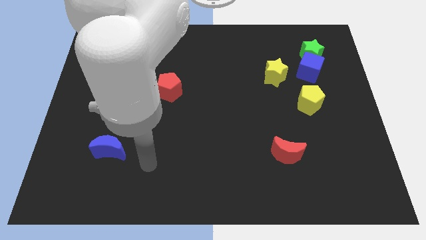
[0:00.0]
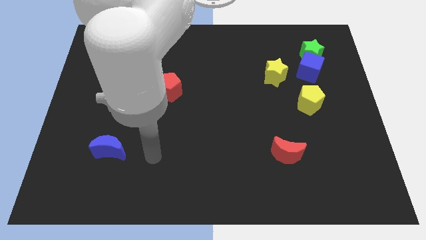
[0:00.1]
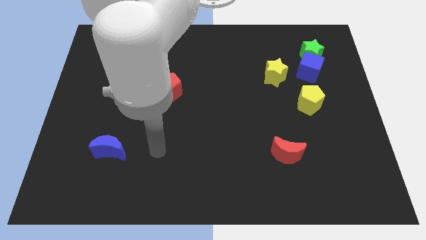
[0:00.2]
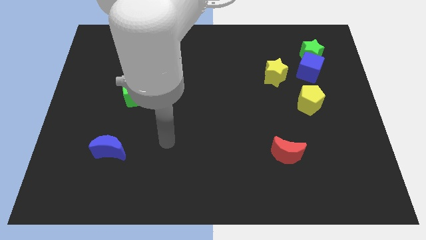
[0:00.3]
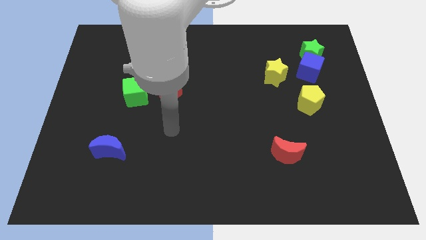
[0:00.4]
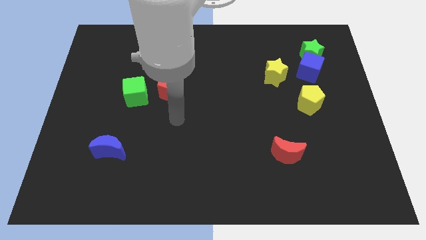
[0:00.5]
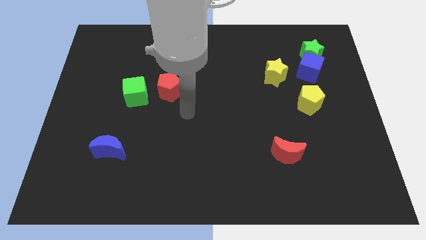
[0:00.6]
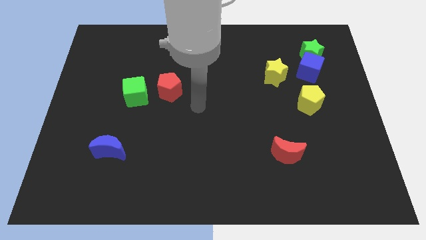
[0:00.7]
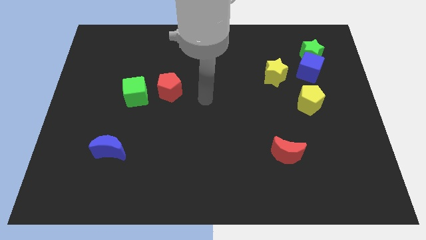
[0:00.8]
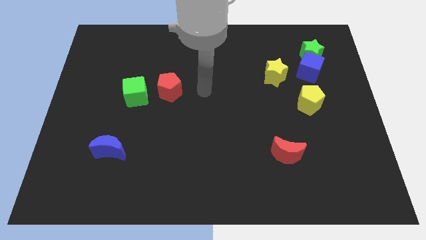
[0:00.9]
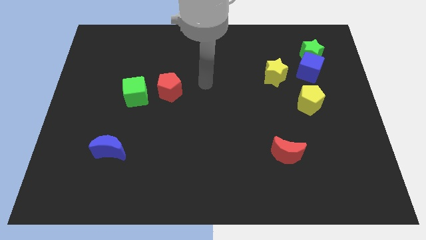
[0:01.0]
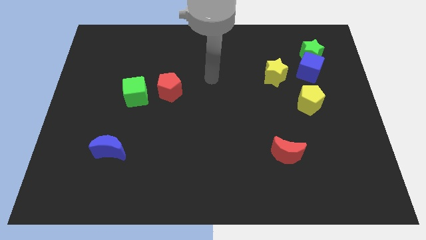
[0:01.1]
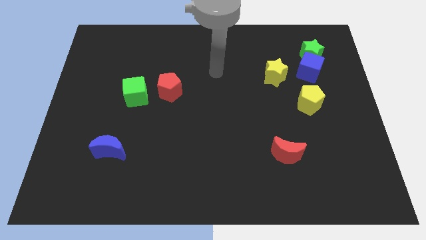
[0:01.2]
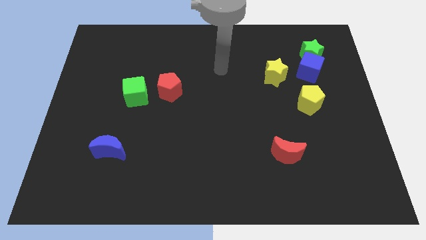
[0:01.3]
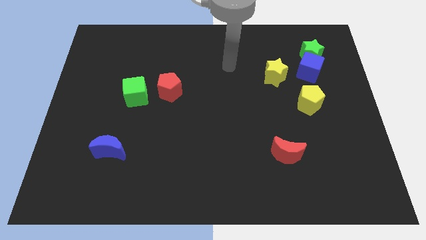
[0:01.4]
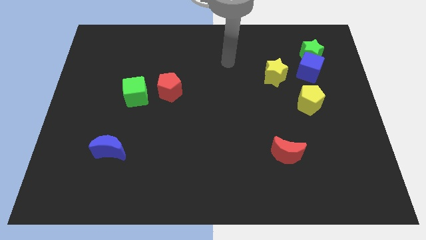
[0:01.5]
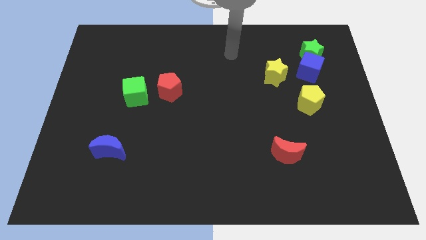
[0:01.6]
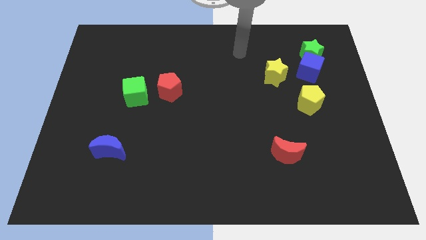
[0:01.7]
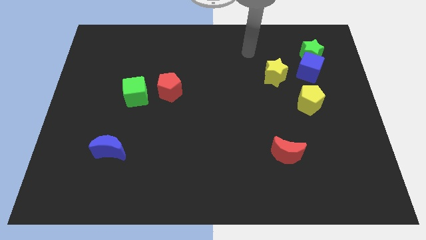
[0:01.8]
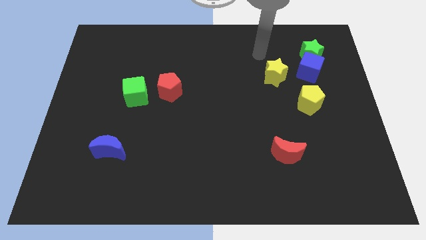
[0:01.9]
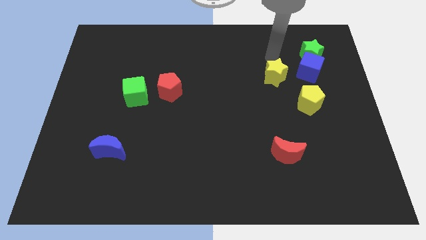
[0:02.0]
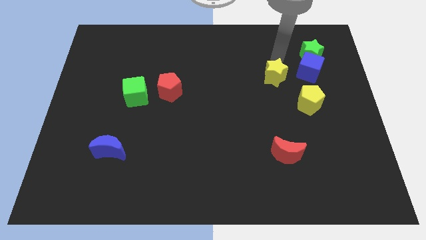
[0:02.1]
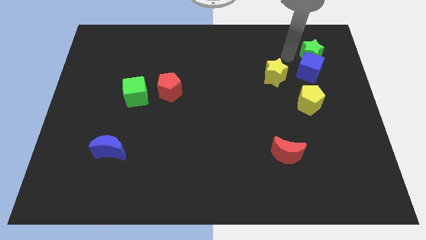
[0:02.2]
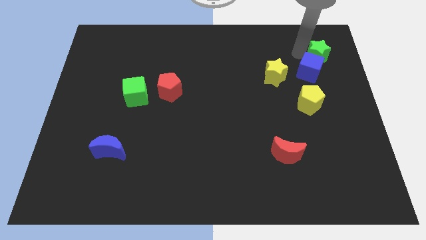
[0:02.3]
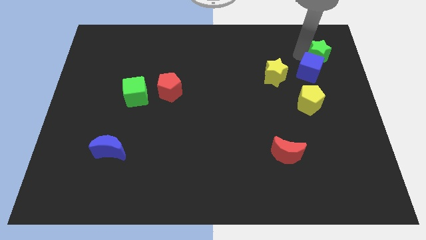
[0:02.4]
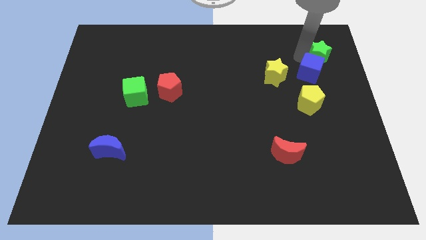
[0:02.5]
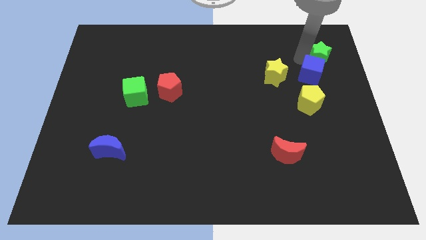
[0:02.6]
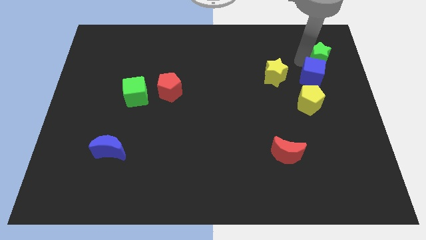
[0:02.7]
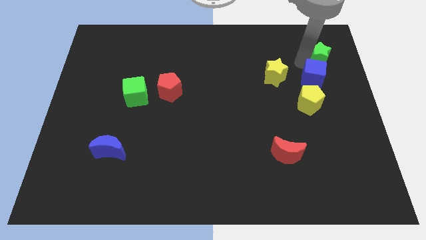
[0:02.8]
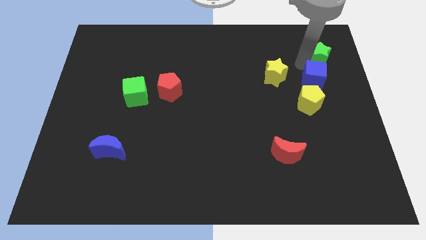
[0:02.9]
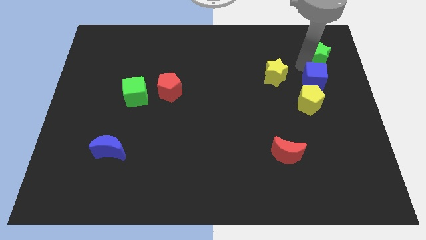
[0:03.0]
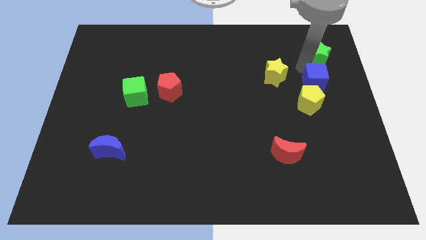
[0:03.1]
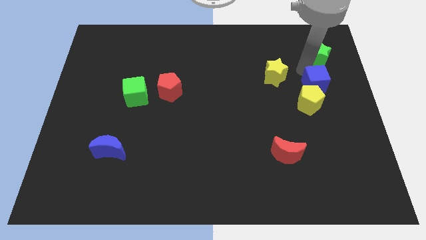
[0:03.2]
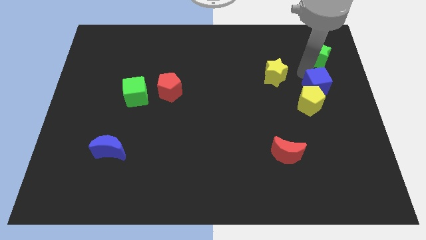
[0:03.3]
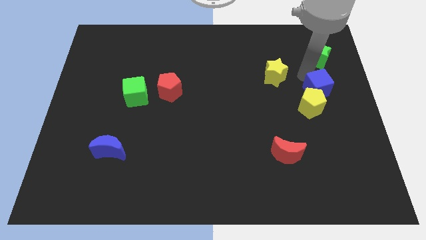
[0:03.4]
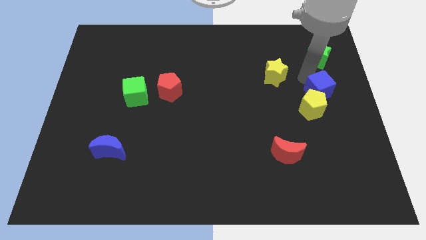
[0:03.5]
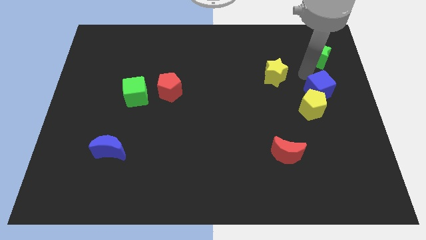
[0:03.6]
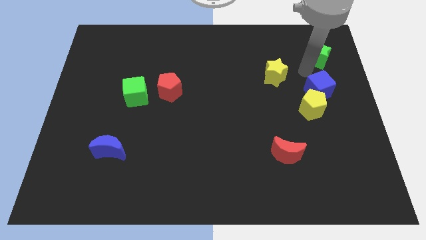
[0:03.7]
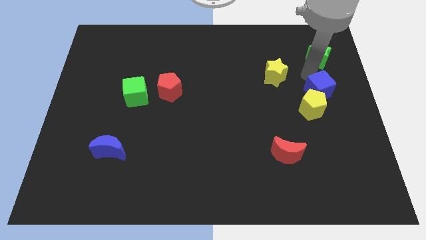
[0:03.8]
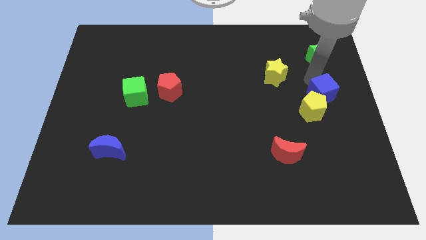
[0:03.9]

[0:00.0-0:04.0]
slightly slide the blue cube downwards

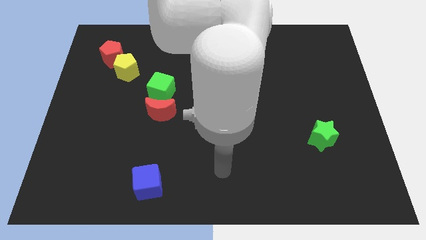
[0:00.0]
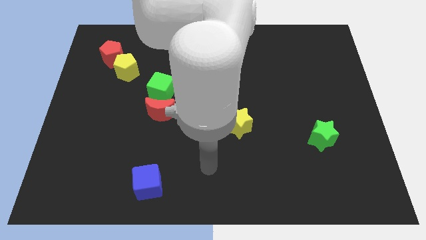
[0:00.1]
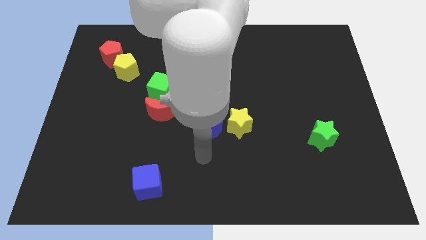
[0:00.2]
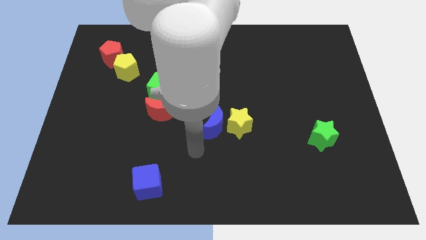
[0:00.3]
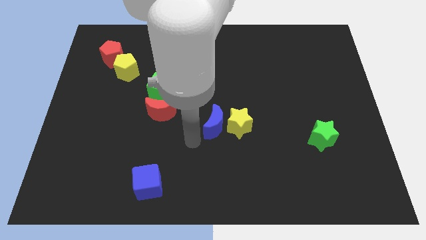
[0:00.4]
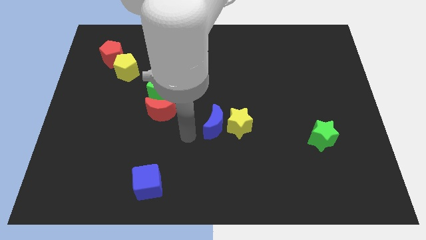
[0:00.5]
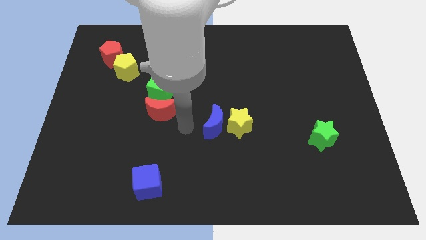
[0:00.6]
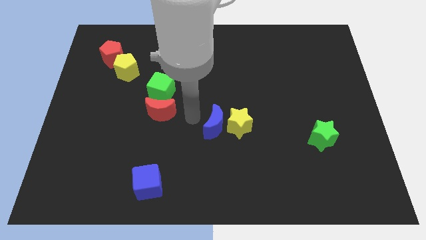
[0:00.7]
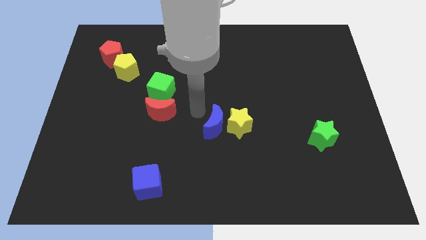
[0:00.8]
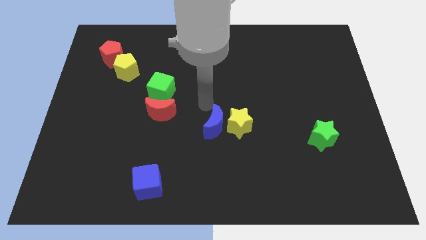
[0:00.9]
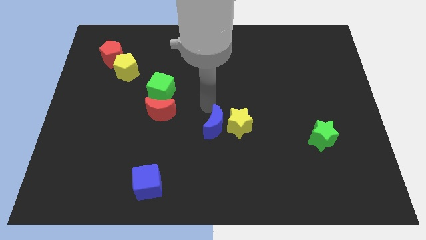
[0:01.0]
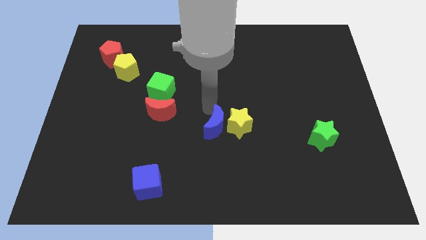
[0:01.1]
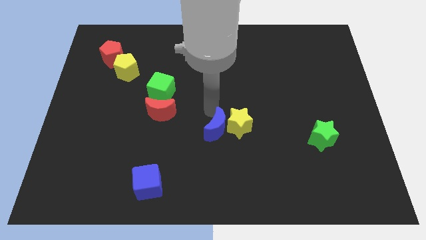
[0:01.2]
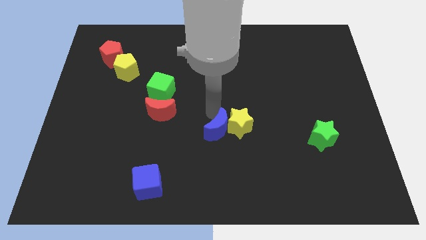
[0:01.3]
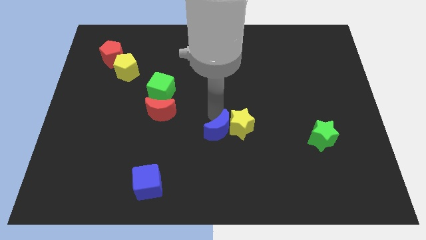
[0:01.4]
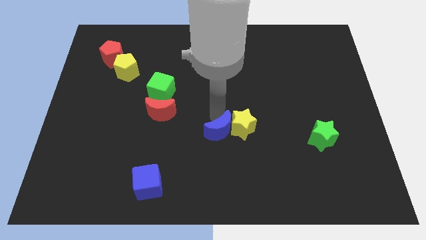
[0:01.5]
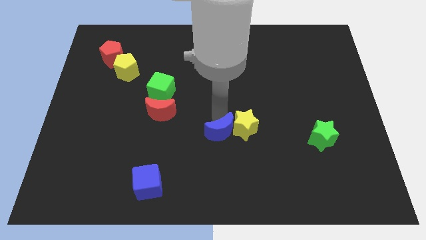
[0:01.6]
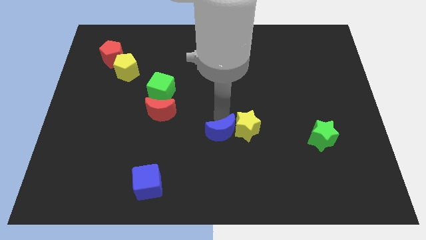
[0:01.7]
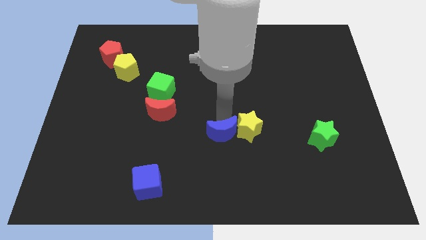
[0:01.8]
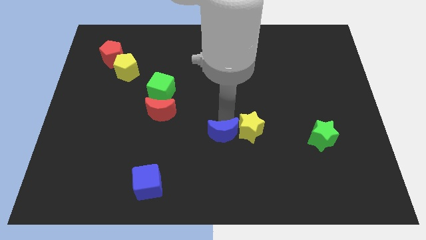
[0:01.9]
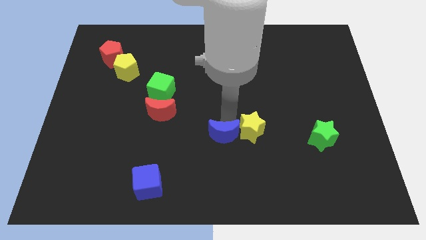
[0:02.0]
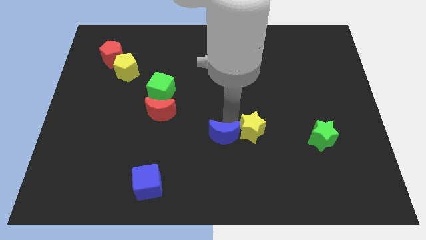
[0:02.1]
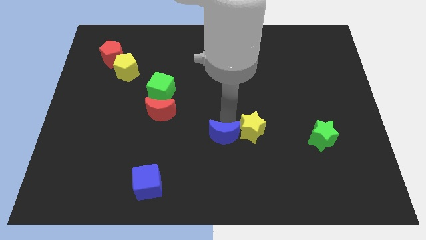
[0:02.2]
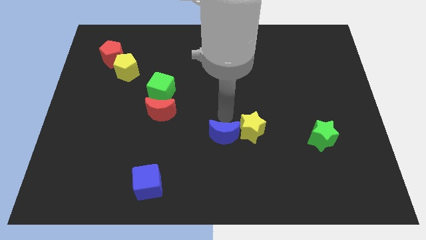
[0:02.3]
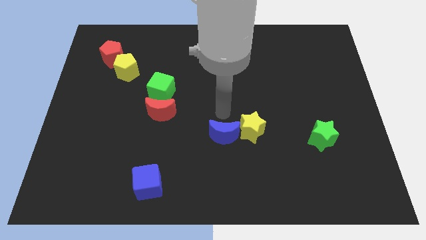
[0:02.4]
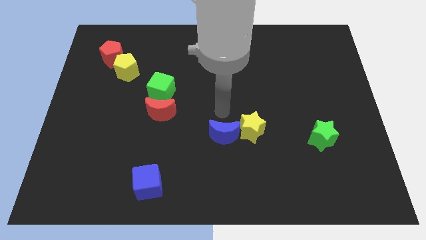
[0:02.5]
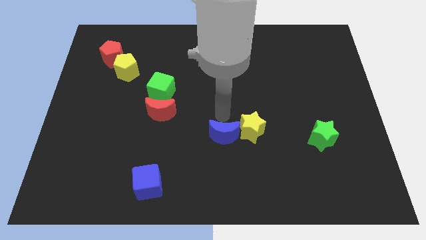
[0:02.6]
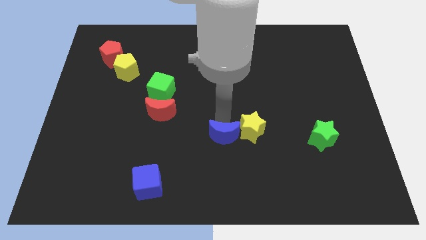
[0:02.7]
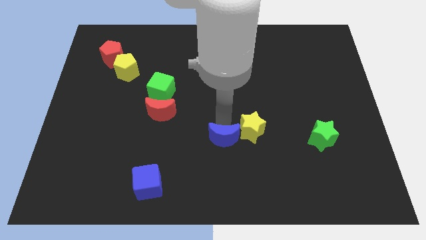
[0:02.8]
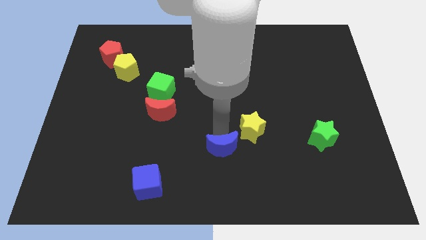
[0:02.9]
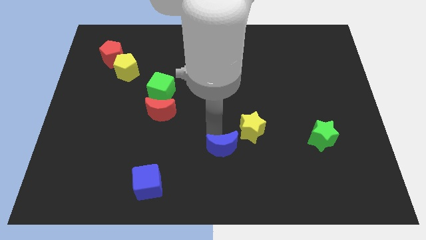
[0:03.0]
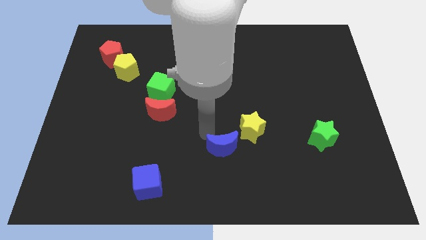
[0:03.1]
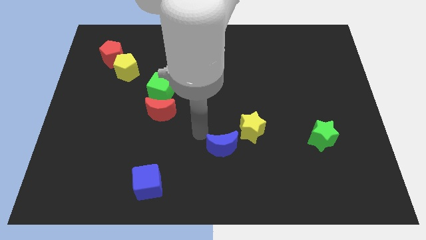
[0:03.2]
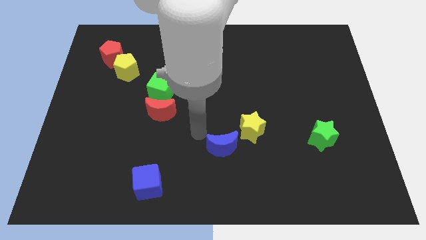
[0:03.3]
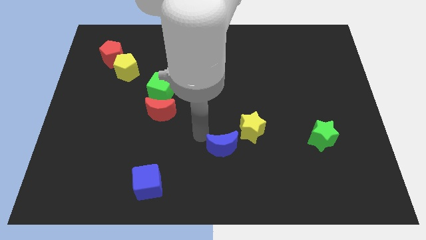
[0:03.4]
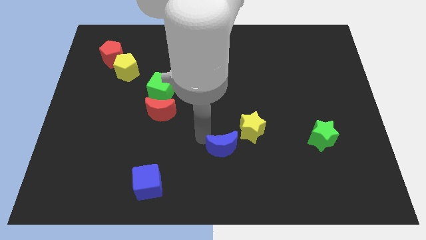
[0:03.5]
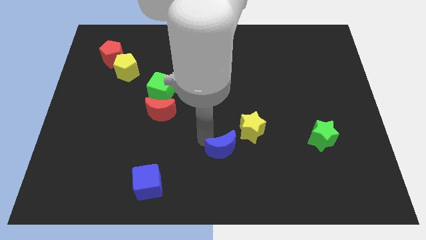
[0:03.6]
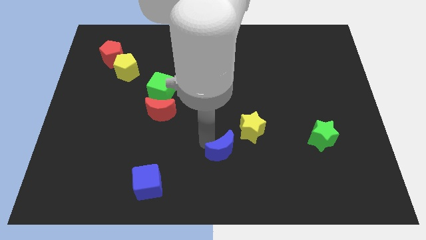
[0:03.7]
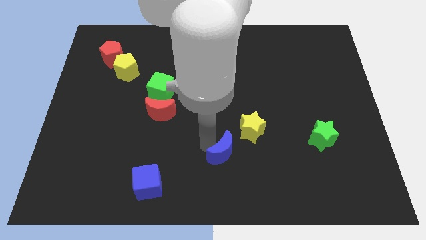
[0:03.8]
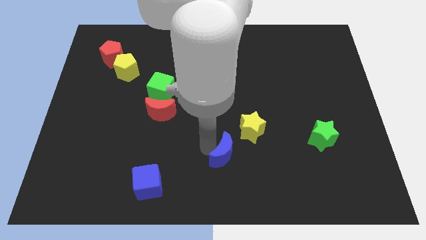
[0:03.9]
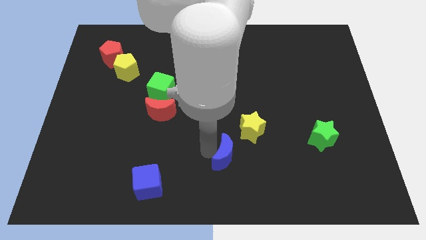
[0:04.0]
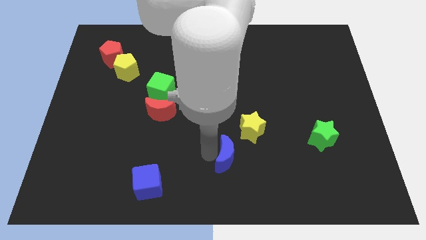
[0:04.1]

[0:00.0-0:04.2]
slide the blue moon a bit down and then right
